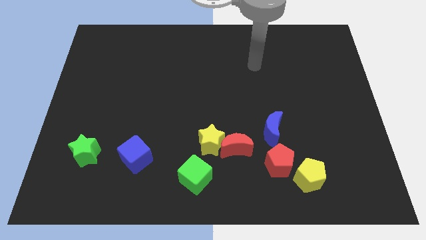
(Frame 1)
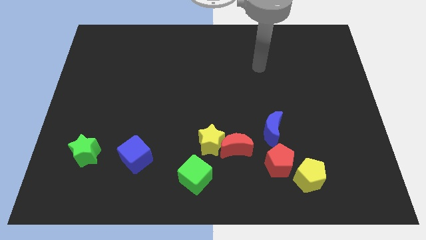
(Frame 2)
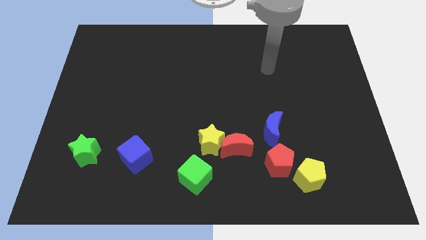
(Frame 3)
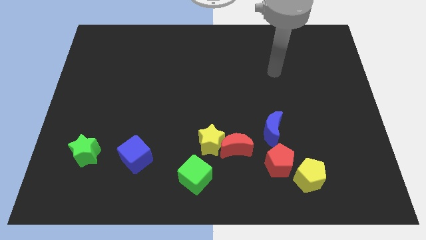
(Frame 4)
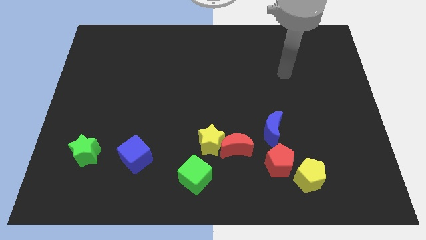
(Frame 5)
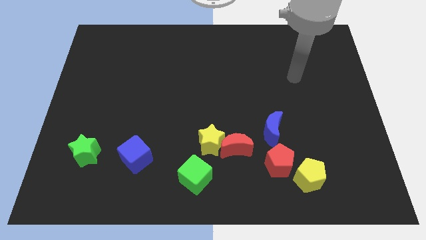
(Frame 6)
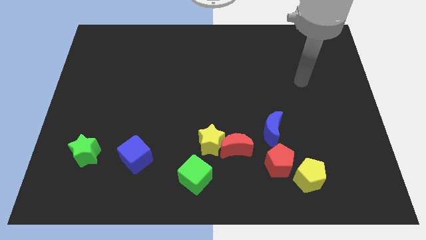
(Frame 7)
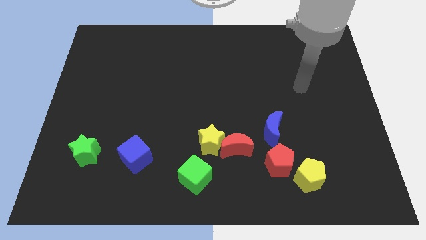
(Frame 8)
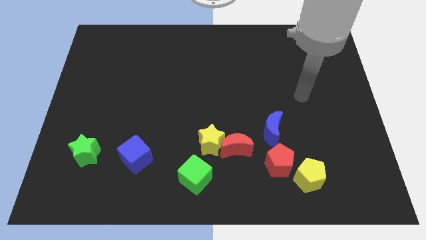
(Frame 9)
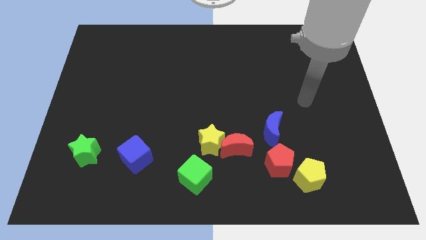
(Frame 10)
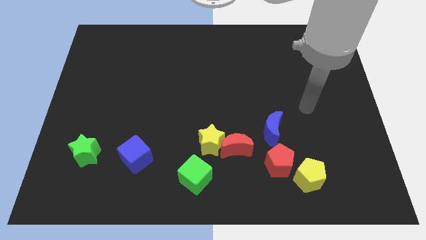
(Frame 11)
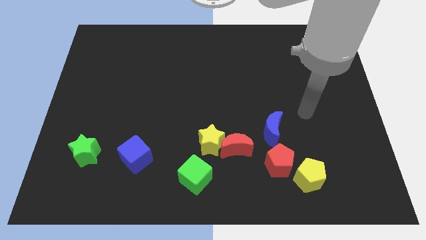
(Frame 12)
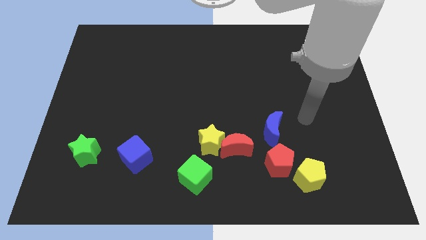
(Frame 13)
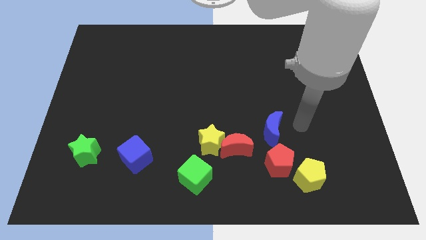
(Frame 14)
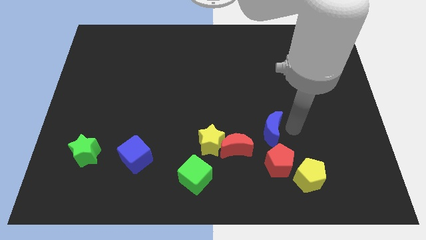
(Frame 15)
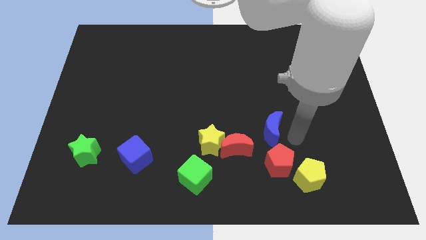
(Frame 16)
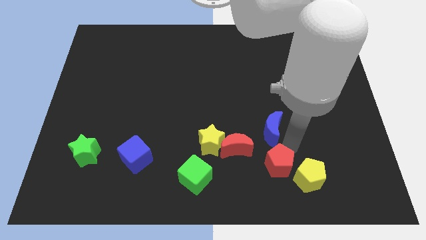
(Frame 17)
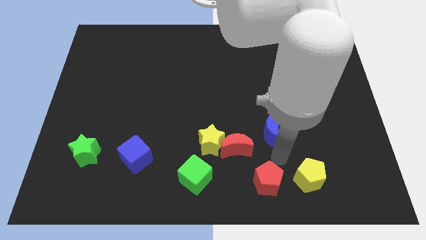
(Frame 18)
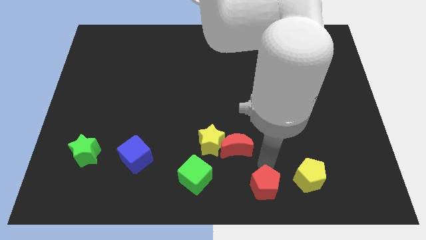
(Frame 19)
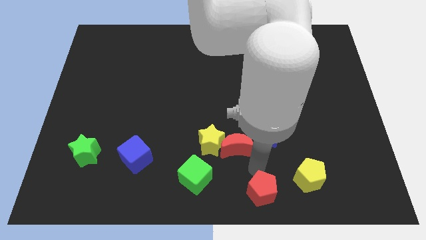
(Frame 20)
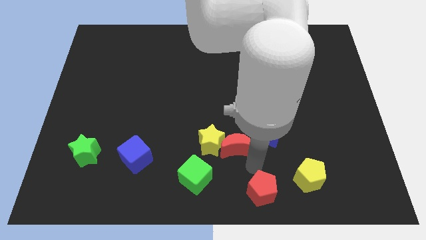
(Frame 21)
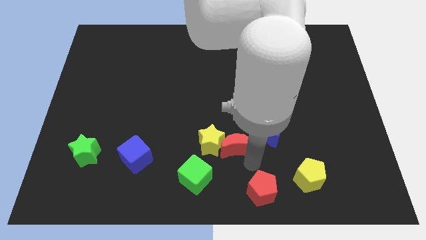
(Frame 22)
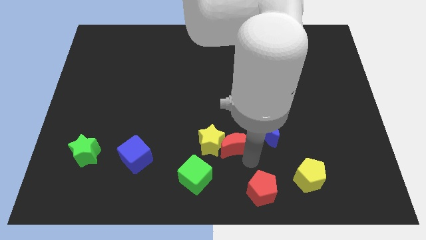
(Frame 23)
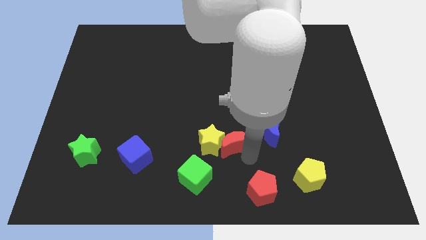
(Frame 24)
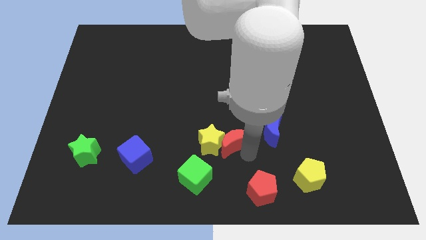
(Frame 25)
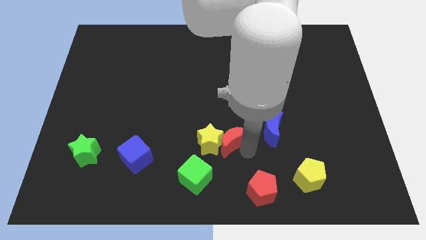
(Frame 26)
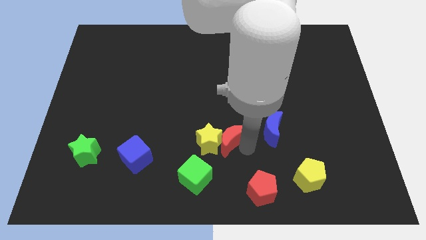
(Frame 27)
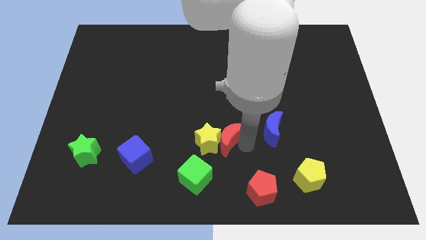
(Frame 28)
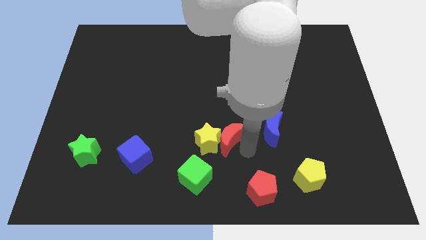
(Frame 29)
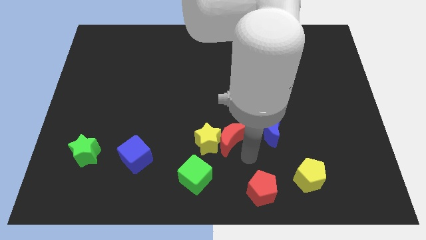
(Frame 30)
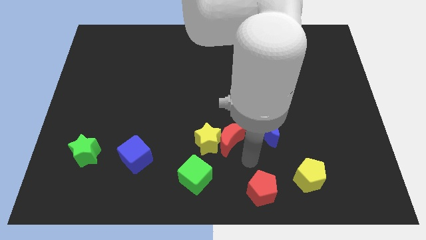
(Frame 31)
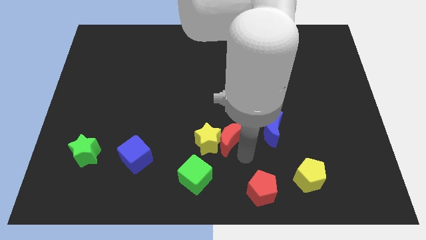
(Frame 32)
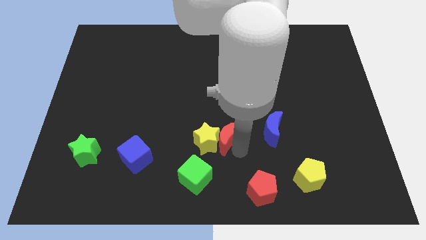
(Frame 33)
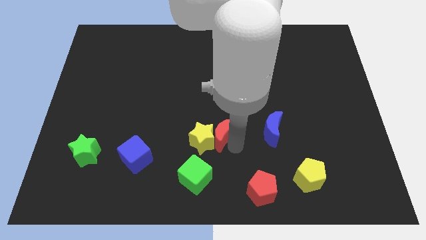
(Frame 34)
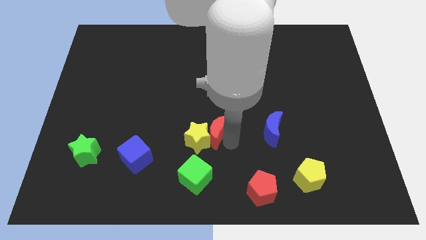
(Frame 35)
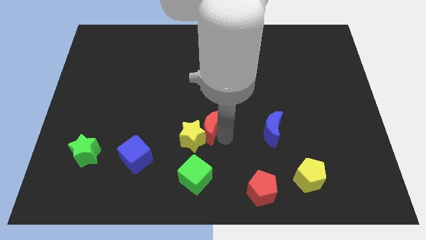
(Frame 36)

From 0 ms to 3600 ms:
move the red moon diagonally up and to the left a little bit

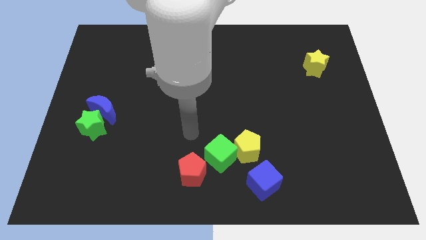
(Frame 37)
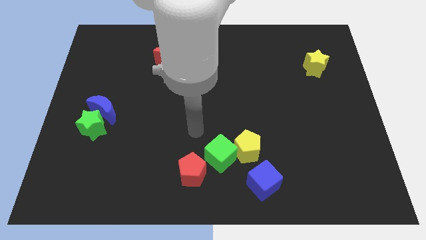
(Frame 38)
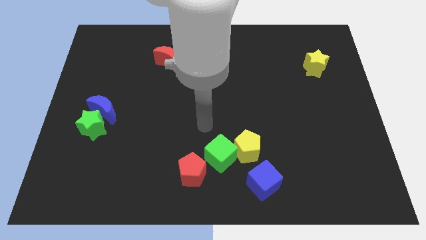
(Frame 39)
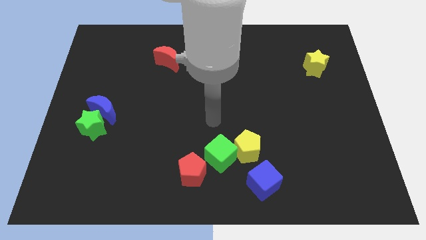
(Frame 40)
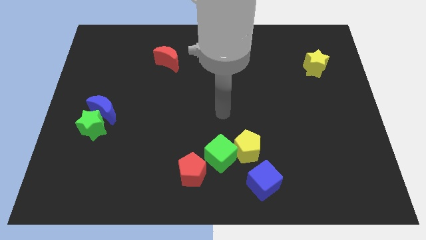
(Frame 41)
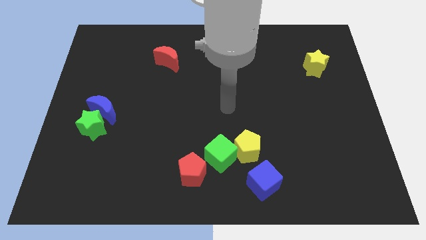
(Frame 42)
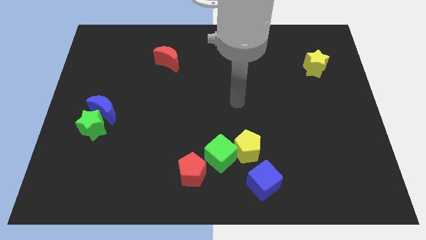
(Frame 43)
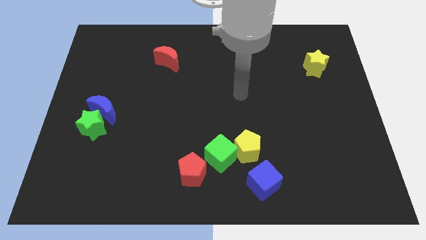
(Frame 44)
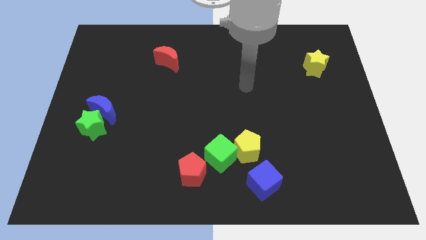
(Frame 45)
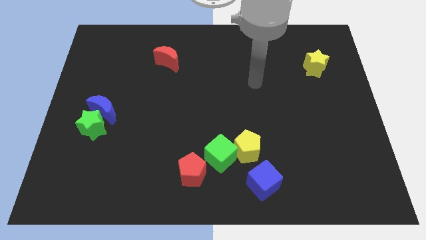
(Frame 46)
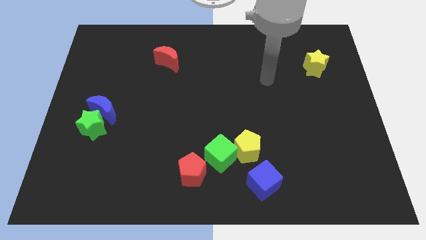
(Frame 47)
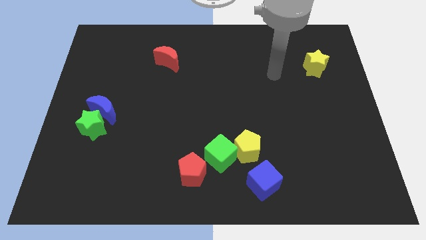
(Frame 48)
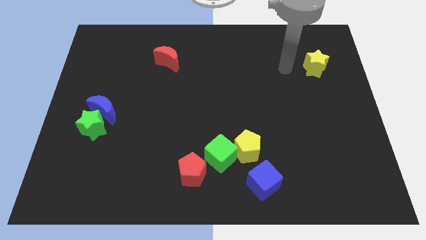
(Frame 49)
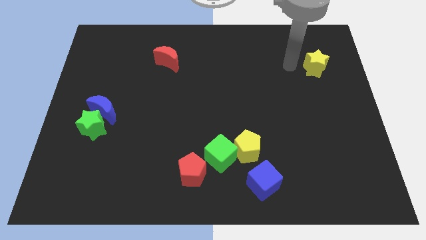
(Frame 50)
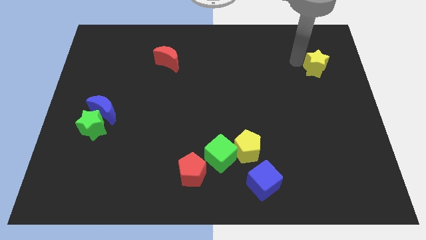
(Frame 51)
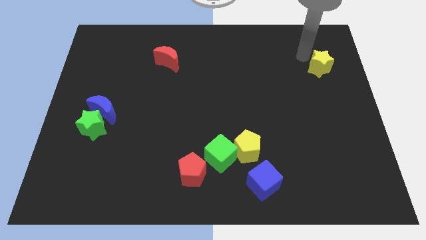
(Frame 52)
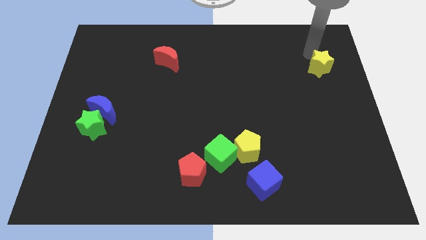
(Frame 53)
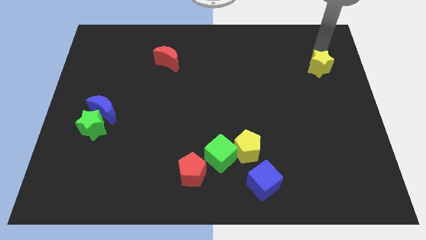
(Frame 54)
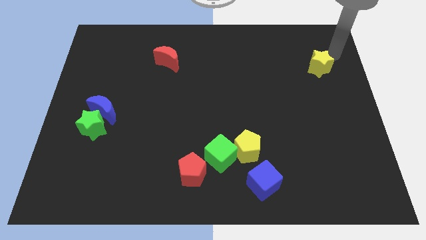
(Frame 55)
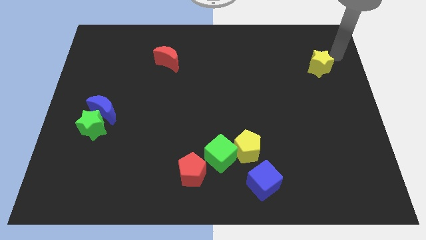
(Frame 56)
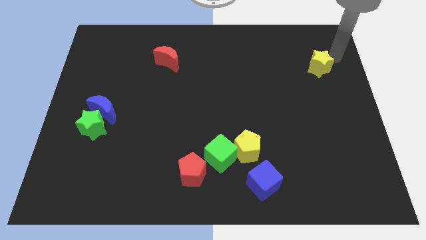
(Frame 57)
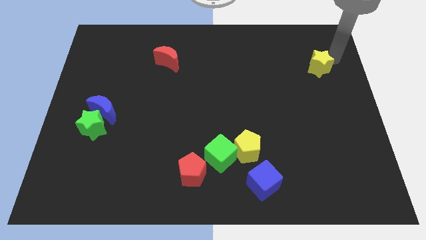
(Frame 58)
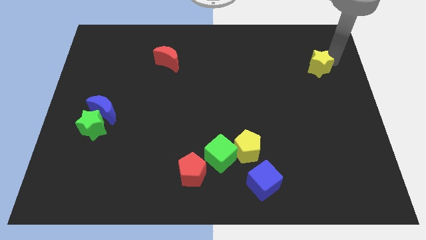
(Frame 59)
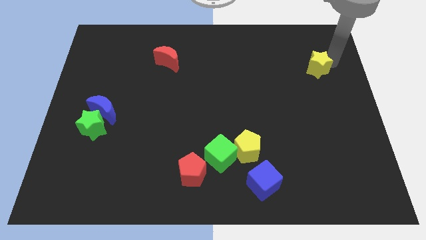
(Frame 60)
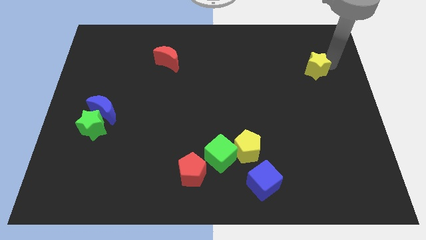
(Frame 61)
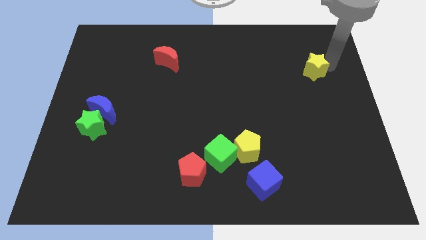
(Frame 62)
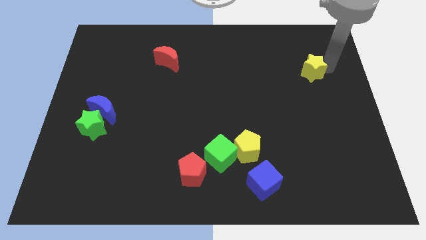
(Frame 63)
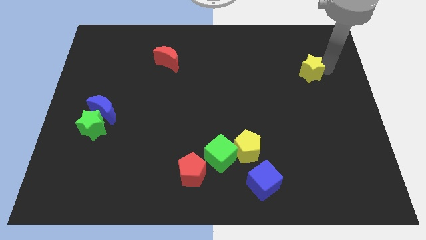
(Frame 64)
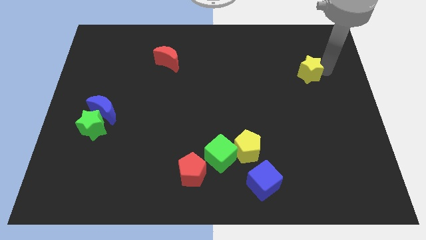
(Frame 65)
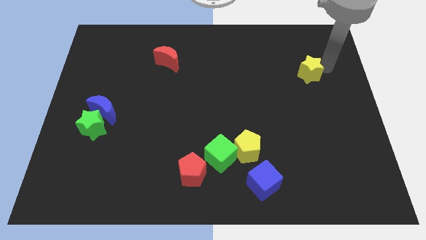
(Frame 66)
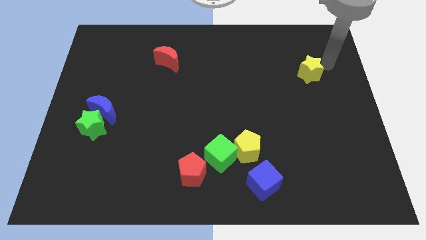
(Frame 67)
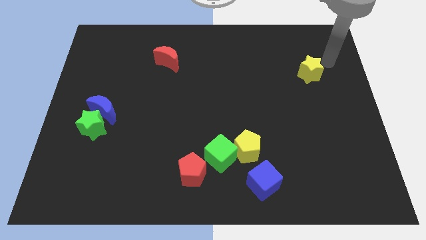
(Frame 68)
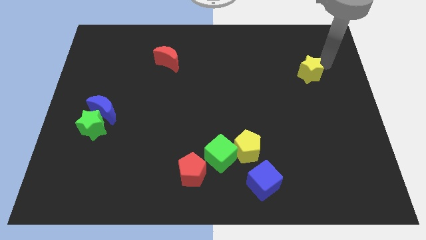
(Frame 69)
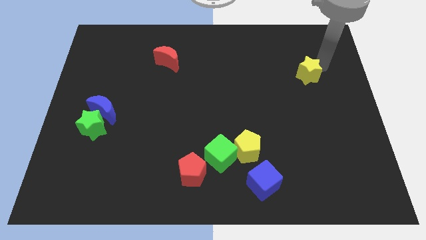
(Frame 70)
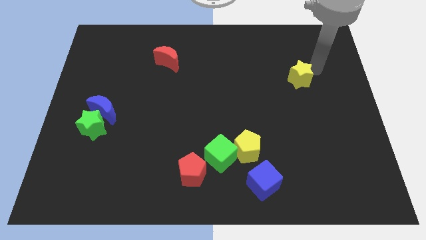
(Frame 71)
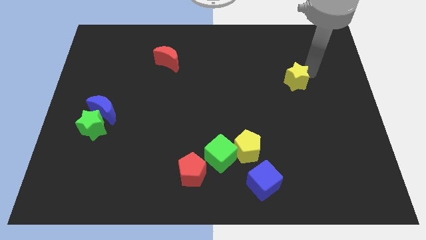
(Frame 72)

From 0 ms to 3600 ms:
push the yellow star somewhat downwards and left diagonally

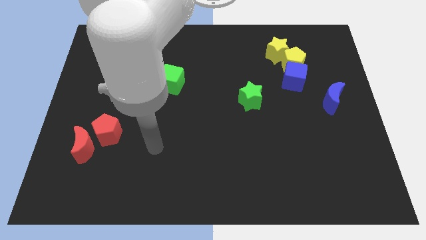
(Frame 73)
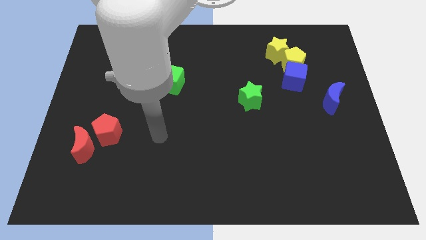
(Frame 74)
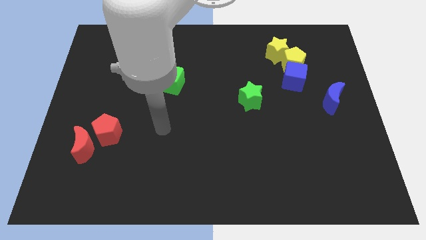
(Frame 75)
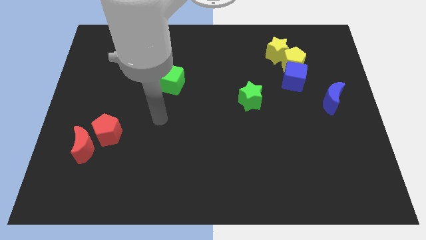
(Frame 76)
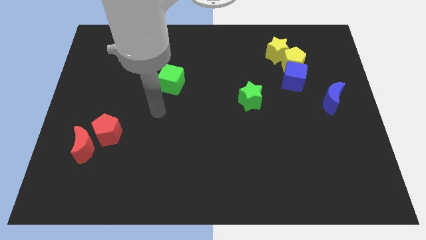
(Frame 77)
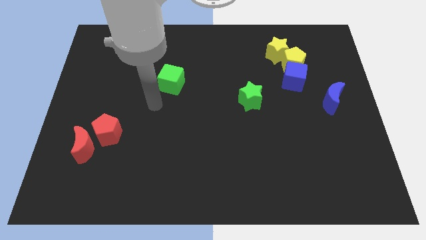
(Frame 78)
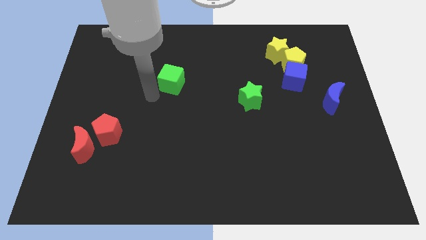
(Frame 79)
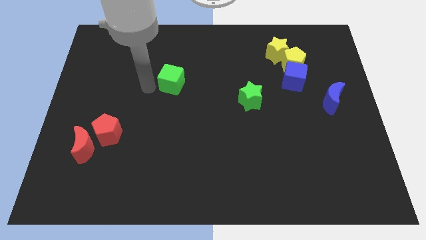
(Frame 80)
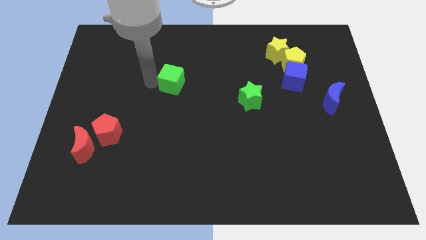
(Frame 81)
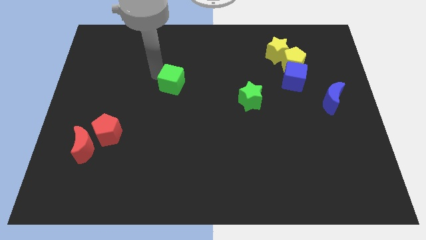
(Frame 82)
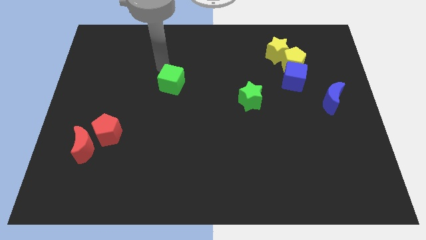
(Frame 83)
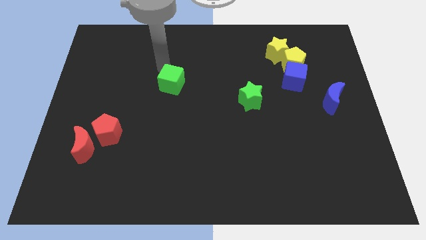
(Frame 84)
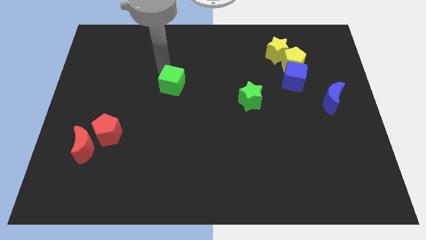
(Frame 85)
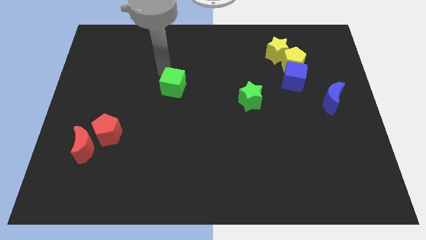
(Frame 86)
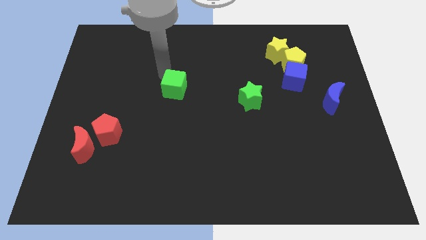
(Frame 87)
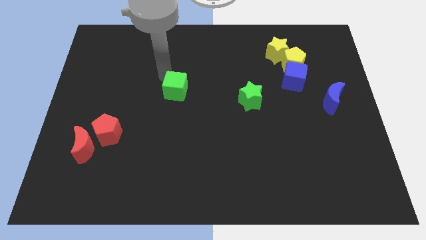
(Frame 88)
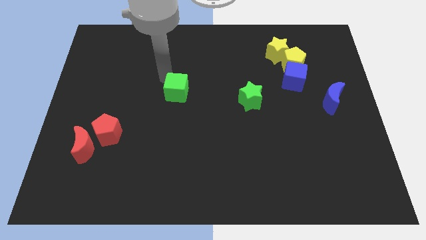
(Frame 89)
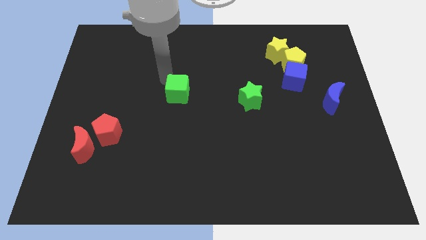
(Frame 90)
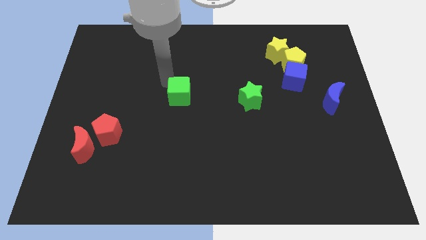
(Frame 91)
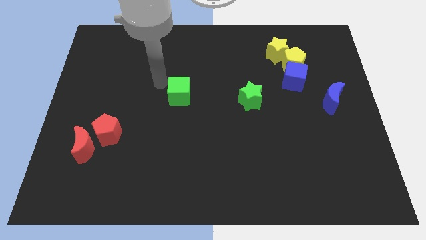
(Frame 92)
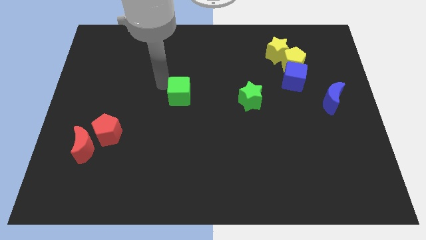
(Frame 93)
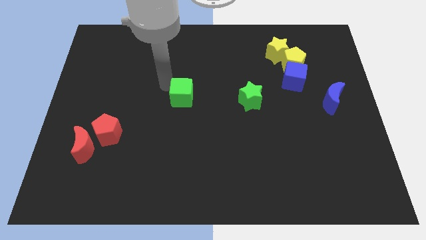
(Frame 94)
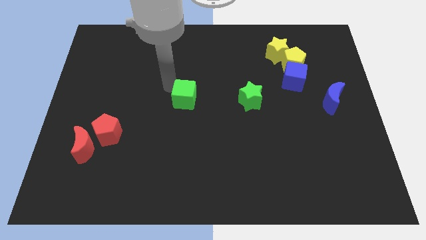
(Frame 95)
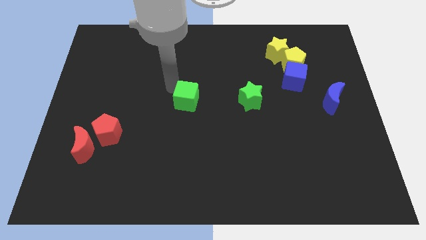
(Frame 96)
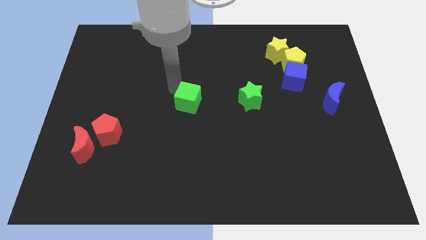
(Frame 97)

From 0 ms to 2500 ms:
move the green cube downwards and to the right diagonally slightly
